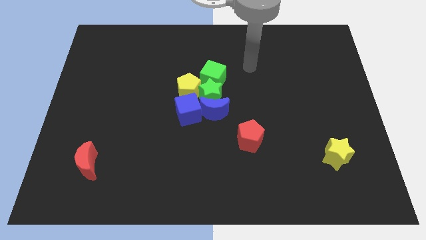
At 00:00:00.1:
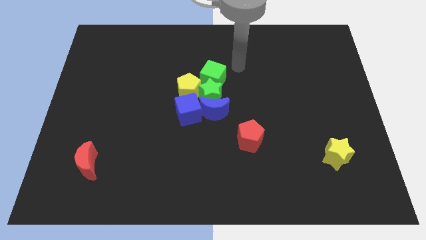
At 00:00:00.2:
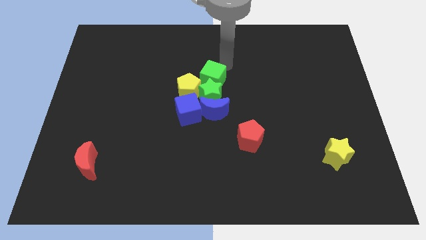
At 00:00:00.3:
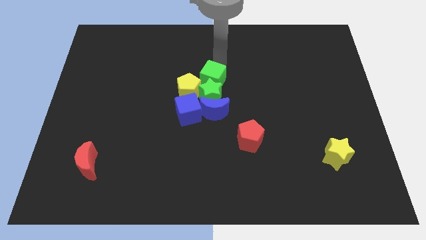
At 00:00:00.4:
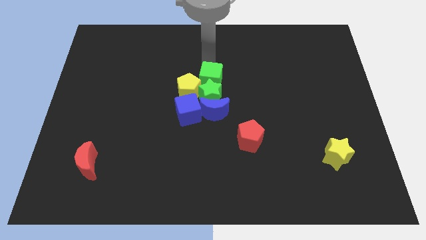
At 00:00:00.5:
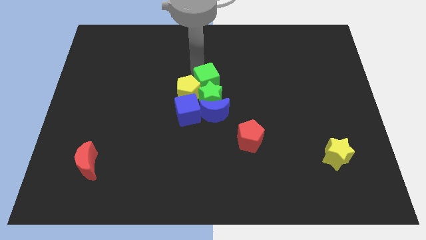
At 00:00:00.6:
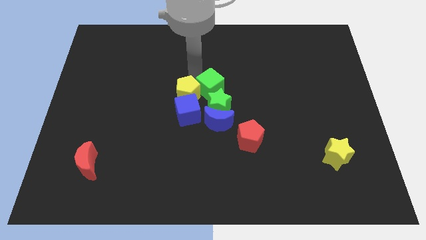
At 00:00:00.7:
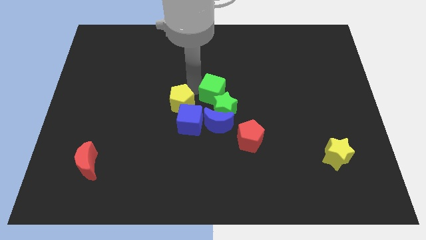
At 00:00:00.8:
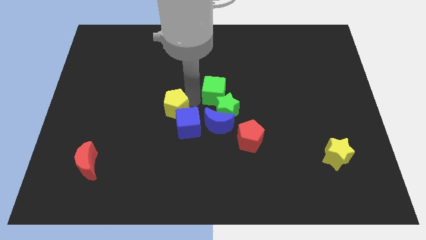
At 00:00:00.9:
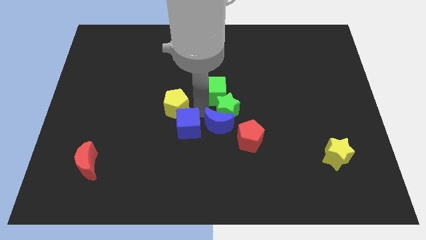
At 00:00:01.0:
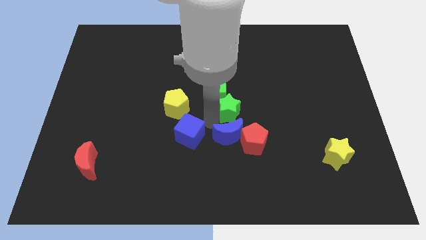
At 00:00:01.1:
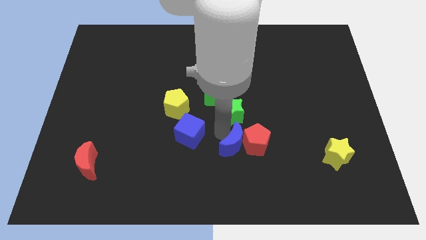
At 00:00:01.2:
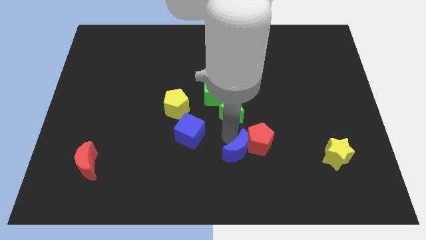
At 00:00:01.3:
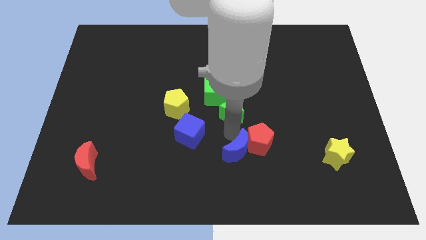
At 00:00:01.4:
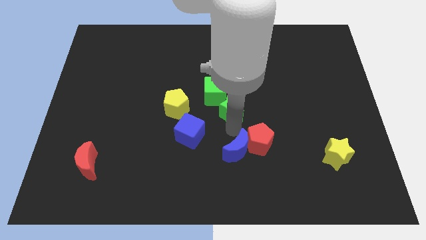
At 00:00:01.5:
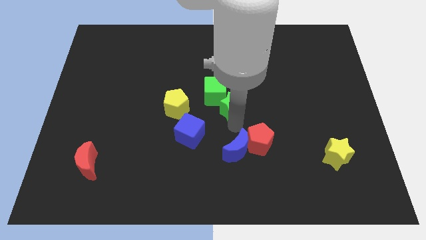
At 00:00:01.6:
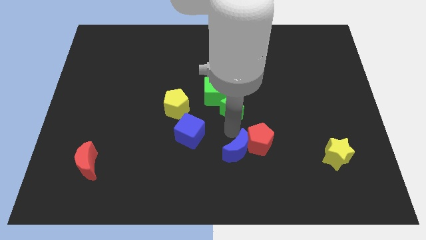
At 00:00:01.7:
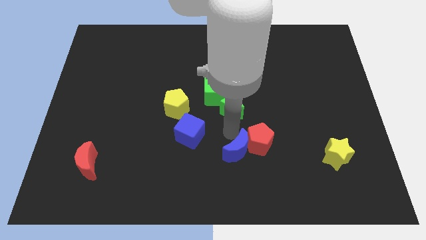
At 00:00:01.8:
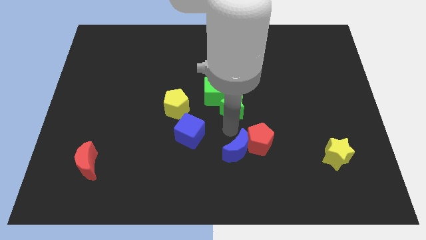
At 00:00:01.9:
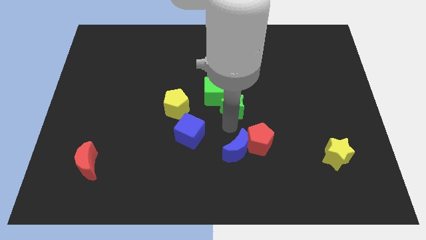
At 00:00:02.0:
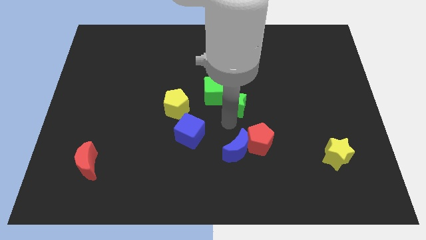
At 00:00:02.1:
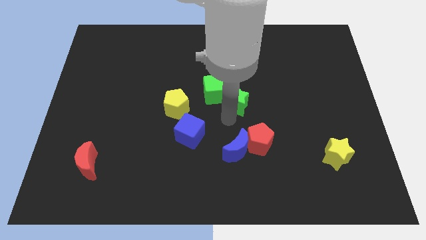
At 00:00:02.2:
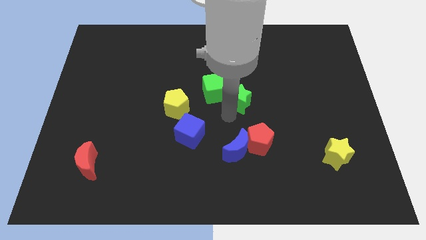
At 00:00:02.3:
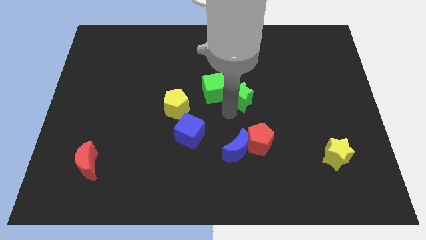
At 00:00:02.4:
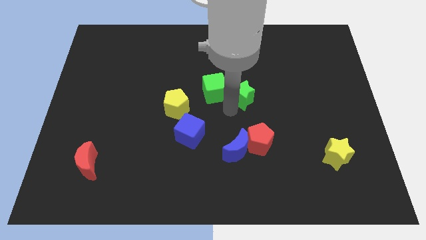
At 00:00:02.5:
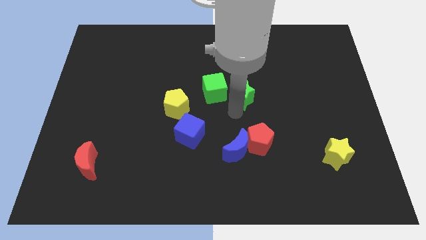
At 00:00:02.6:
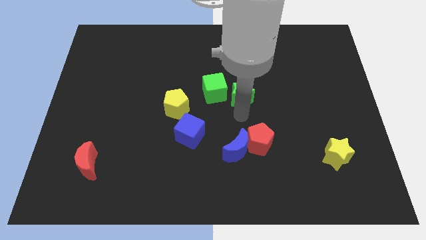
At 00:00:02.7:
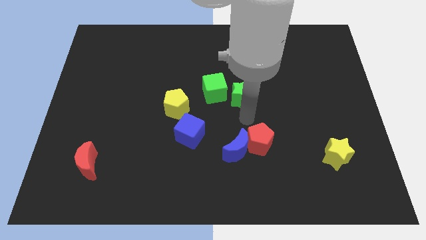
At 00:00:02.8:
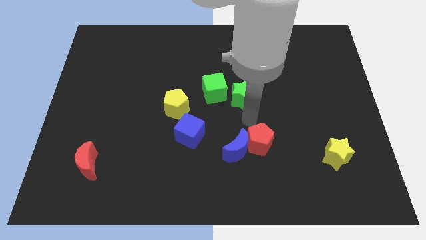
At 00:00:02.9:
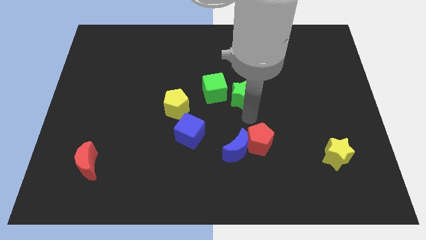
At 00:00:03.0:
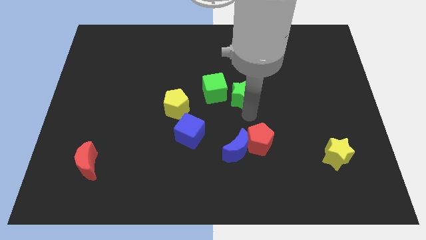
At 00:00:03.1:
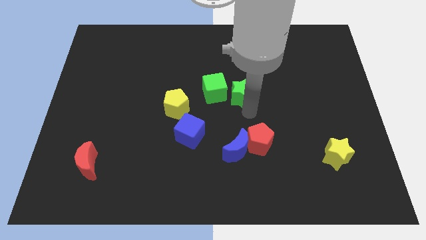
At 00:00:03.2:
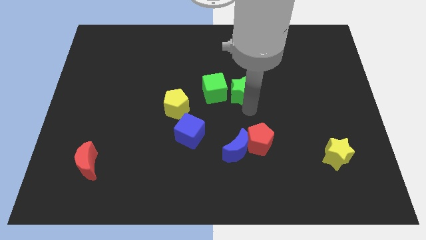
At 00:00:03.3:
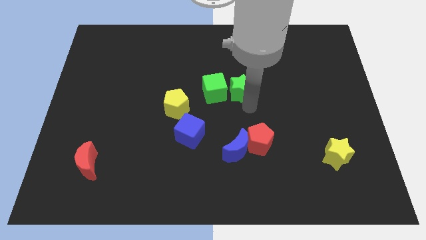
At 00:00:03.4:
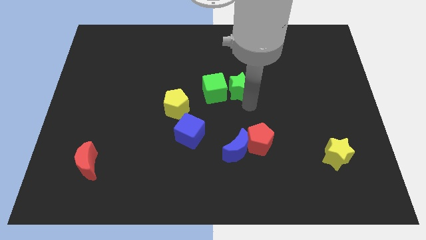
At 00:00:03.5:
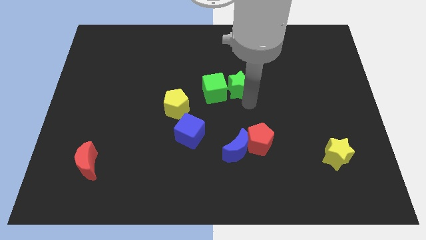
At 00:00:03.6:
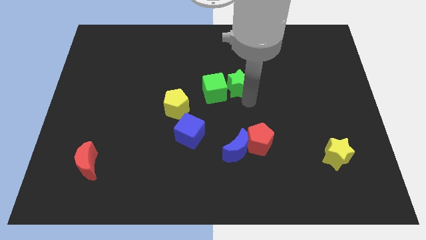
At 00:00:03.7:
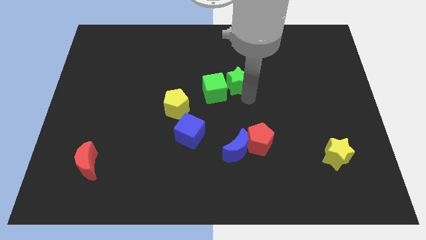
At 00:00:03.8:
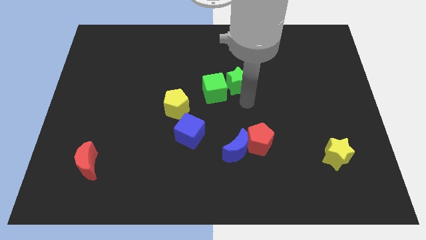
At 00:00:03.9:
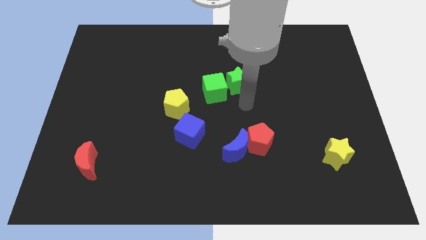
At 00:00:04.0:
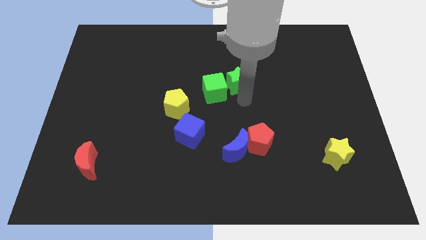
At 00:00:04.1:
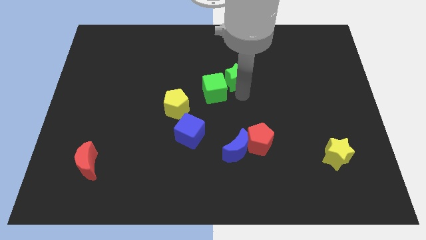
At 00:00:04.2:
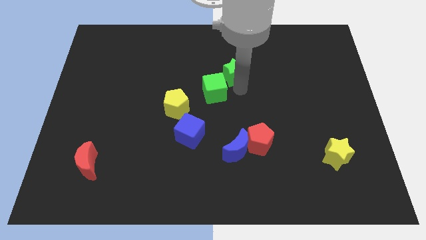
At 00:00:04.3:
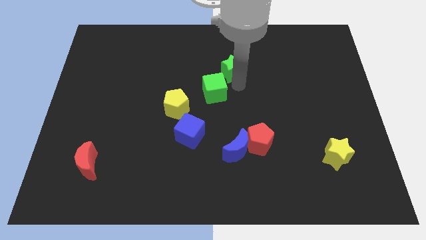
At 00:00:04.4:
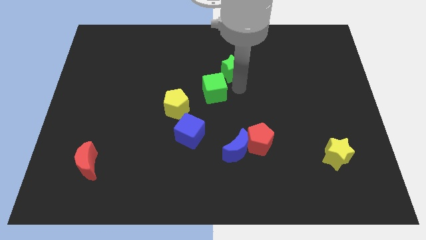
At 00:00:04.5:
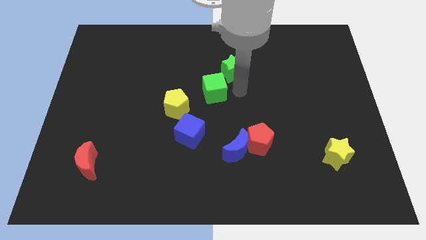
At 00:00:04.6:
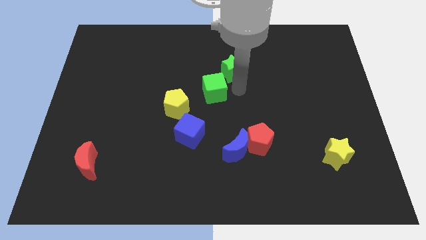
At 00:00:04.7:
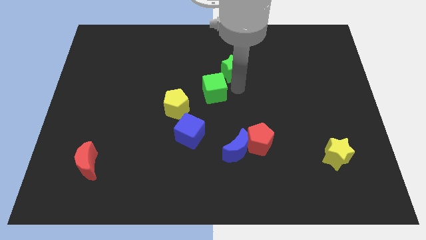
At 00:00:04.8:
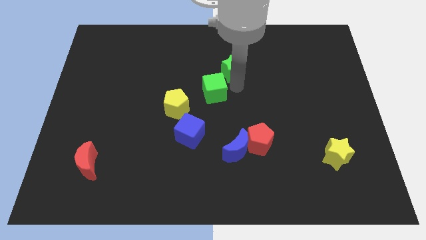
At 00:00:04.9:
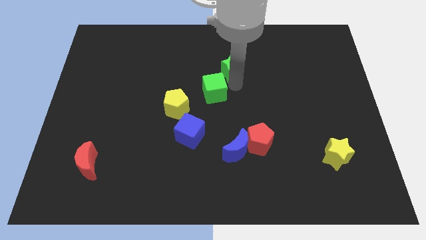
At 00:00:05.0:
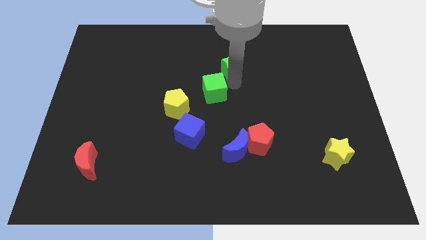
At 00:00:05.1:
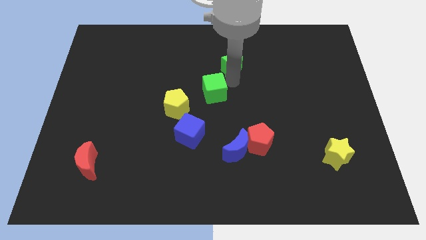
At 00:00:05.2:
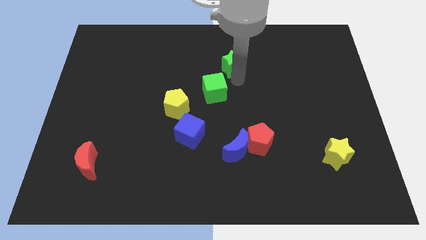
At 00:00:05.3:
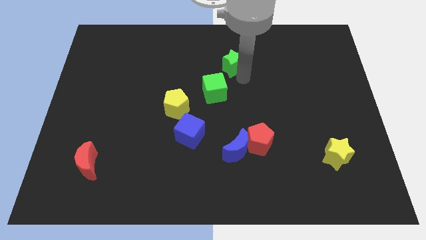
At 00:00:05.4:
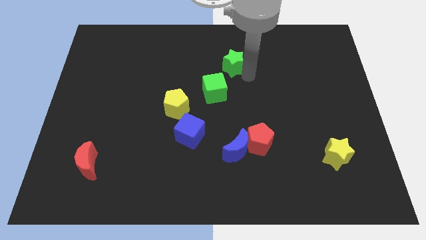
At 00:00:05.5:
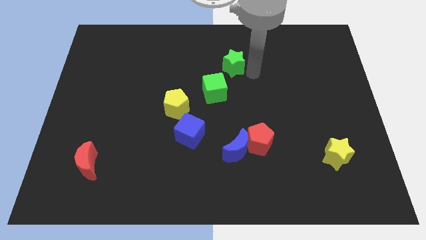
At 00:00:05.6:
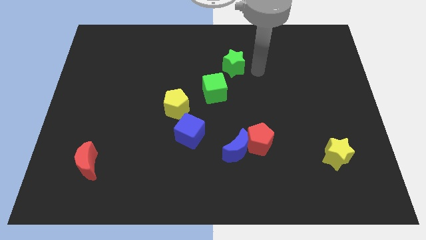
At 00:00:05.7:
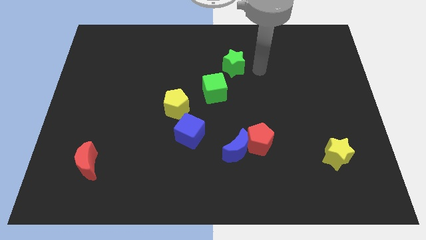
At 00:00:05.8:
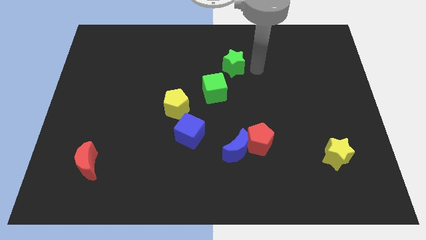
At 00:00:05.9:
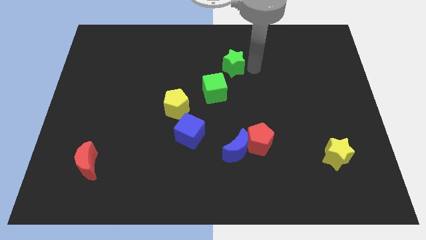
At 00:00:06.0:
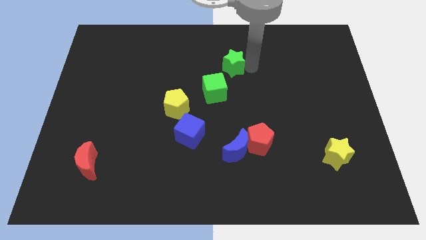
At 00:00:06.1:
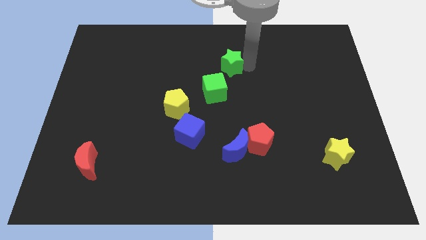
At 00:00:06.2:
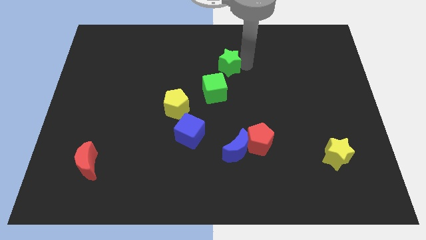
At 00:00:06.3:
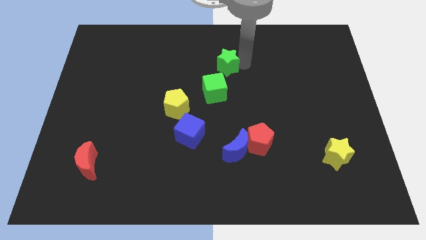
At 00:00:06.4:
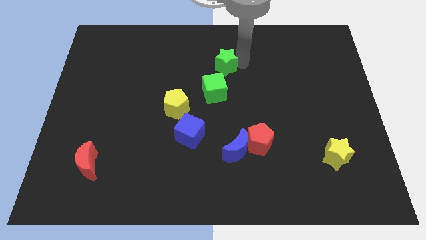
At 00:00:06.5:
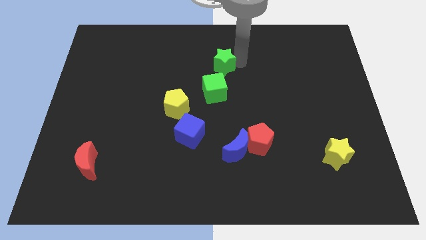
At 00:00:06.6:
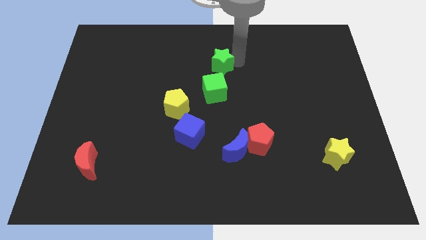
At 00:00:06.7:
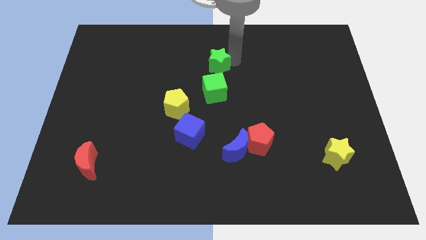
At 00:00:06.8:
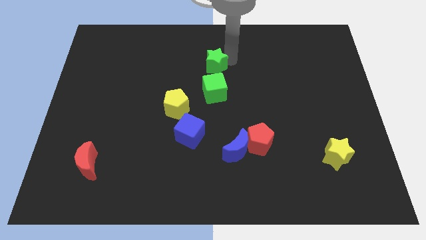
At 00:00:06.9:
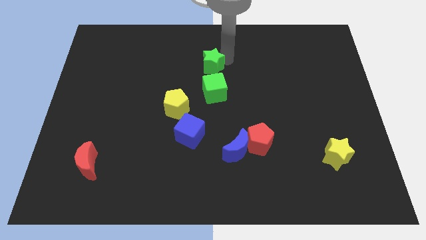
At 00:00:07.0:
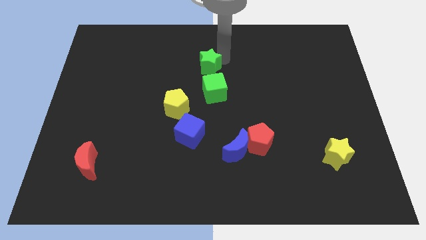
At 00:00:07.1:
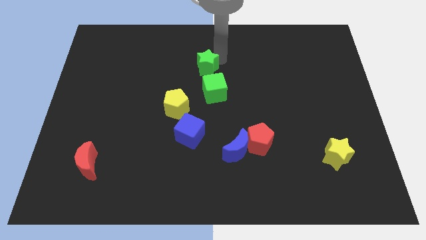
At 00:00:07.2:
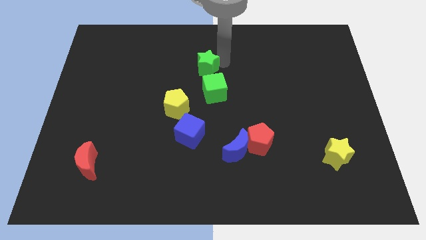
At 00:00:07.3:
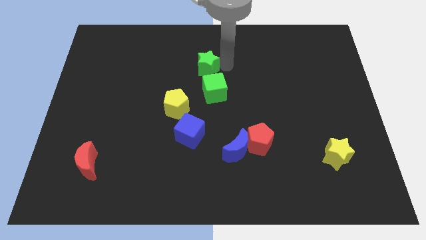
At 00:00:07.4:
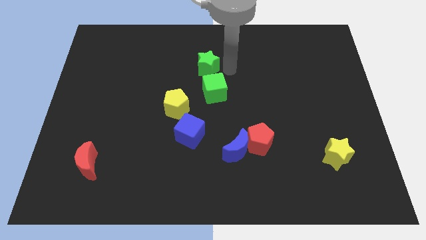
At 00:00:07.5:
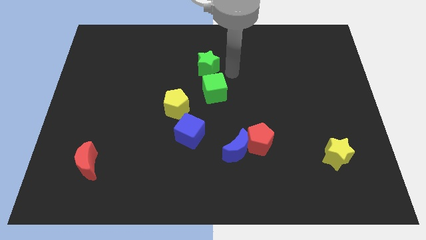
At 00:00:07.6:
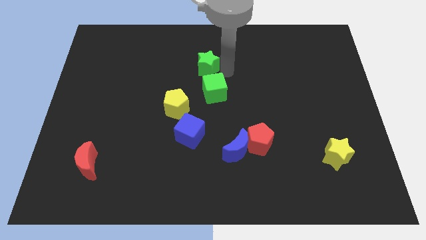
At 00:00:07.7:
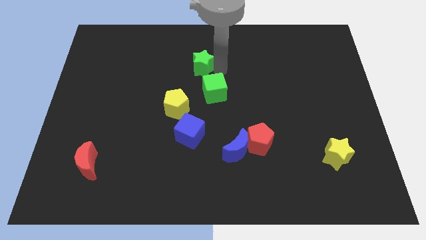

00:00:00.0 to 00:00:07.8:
slide the green star slightly upwards and then left
